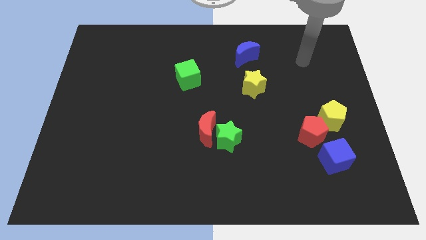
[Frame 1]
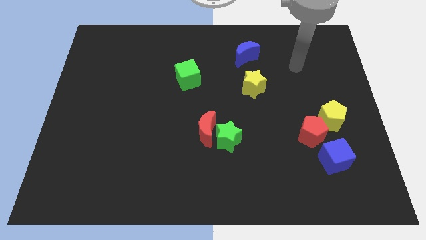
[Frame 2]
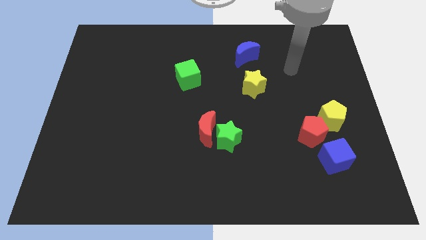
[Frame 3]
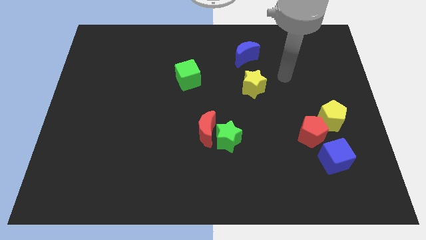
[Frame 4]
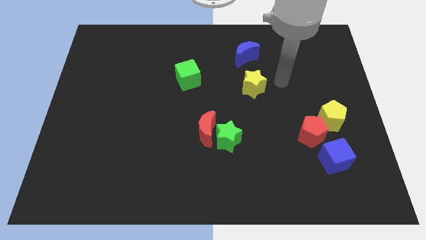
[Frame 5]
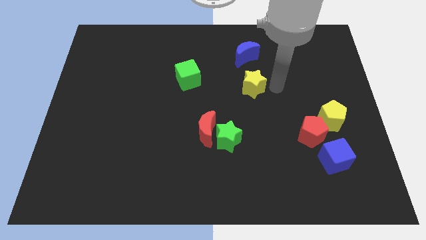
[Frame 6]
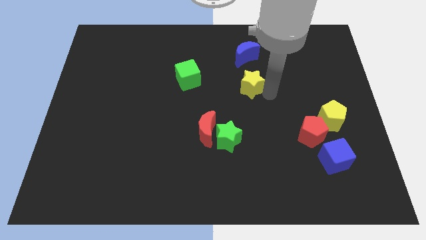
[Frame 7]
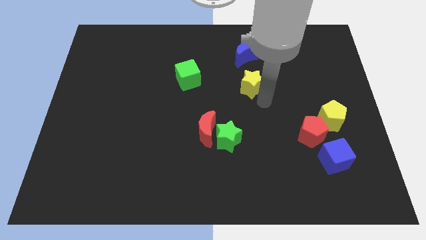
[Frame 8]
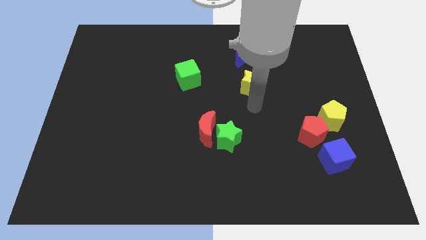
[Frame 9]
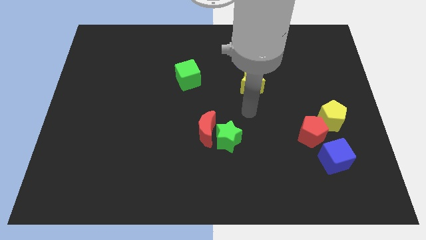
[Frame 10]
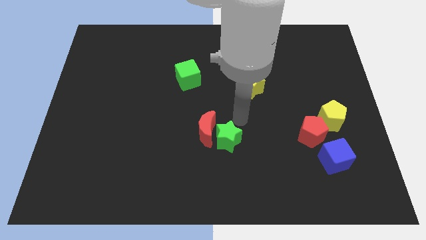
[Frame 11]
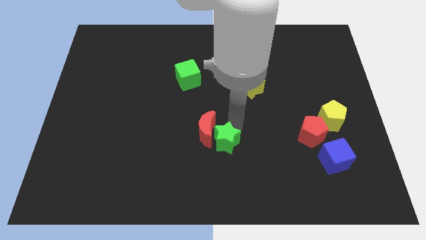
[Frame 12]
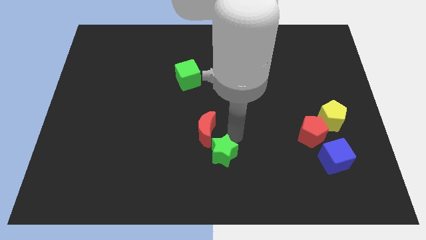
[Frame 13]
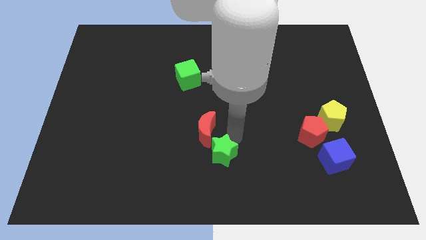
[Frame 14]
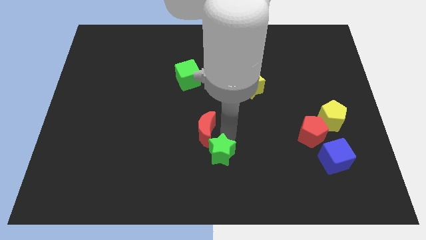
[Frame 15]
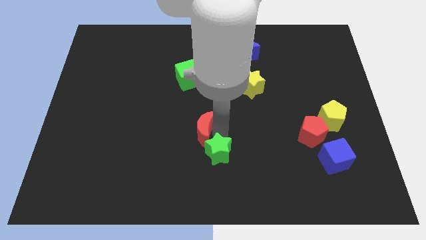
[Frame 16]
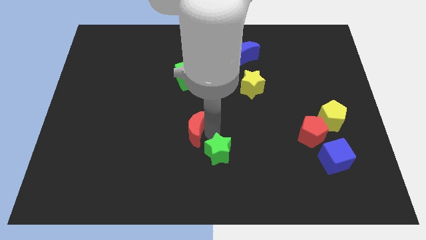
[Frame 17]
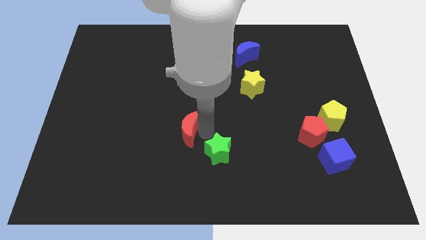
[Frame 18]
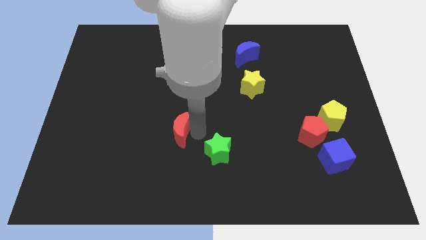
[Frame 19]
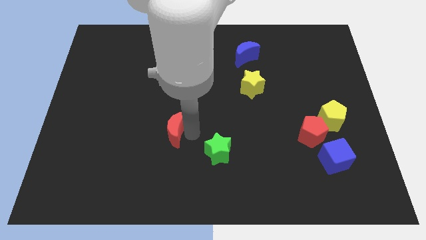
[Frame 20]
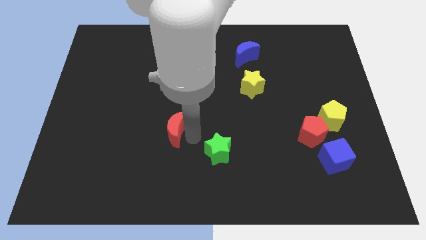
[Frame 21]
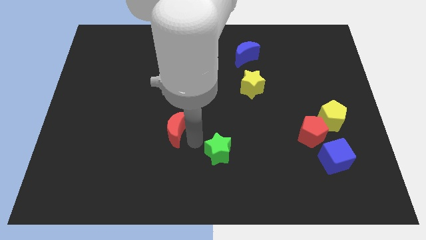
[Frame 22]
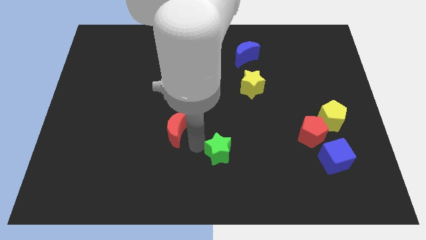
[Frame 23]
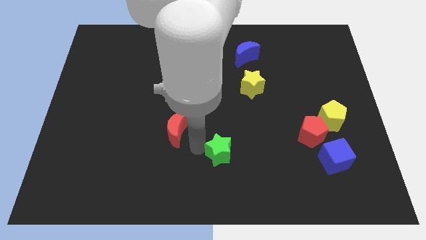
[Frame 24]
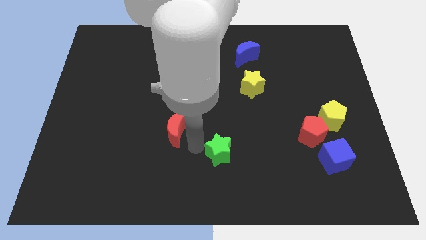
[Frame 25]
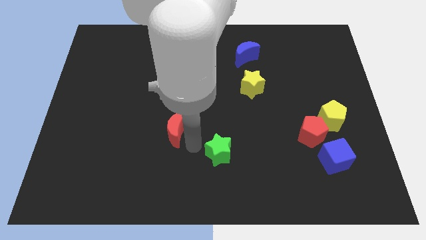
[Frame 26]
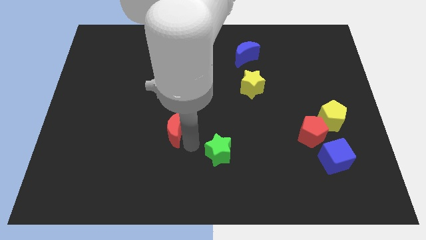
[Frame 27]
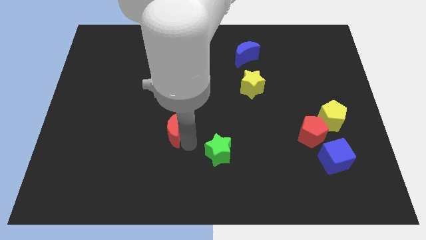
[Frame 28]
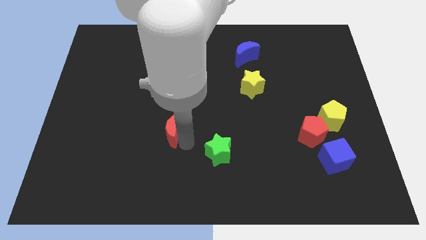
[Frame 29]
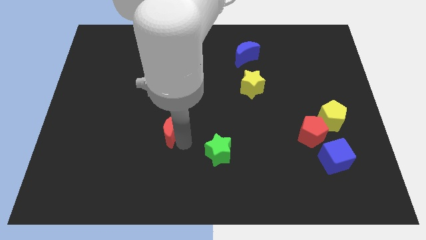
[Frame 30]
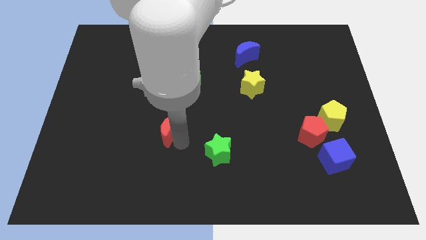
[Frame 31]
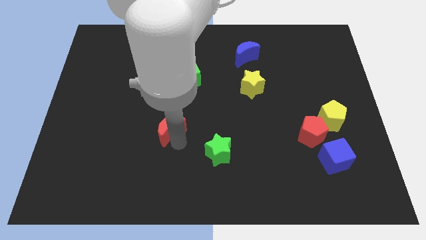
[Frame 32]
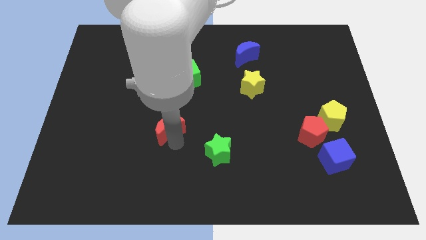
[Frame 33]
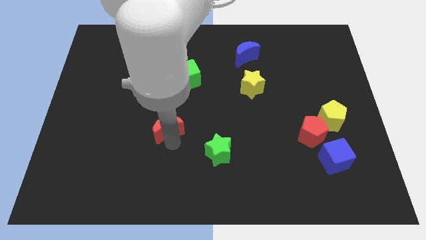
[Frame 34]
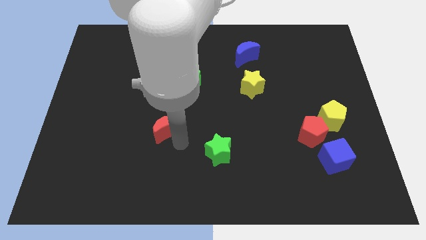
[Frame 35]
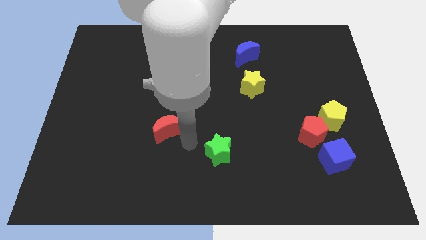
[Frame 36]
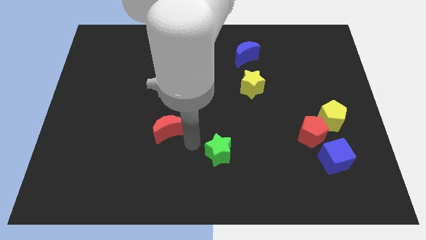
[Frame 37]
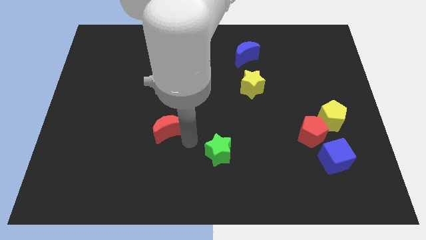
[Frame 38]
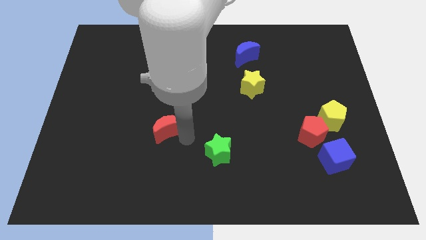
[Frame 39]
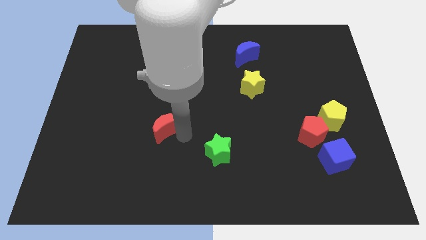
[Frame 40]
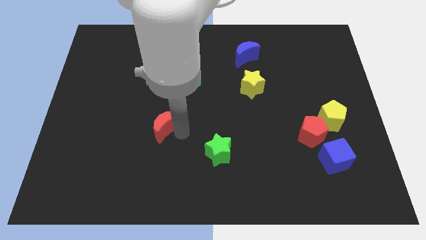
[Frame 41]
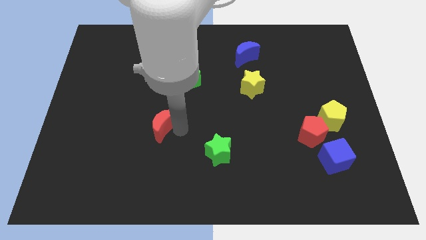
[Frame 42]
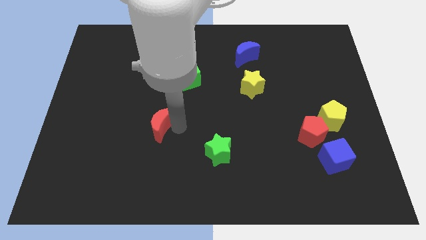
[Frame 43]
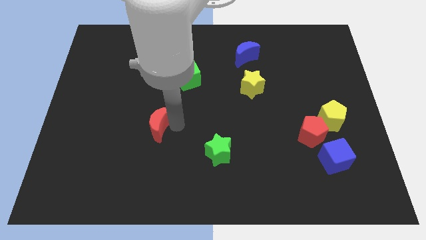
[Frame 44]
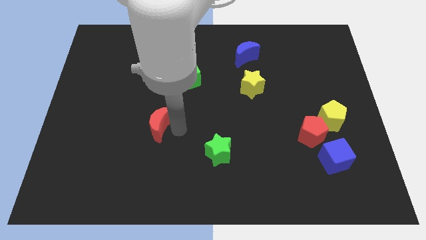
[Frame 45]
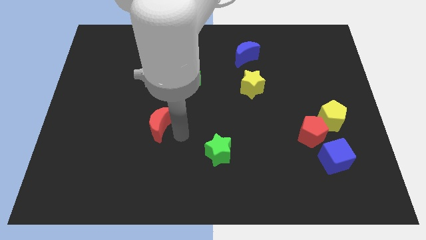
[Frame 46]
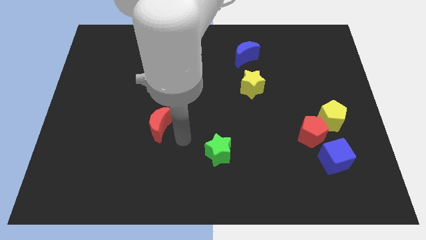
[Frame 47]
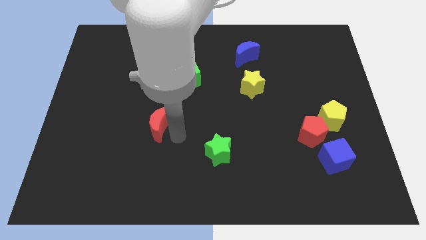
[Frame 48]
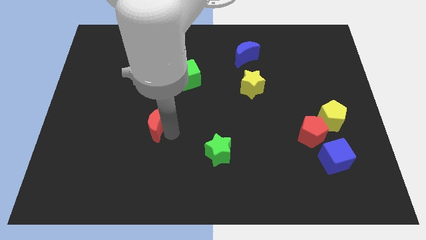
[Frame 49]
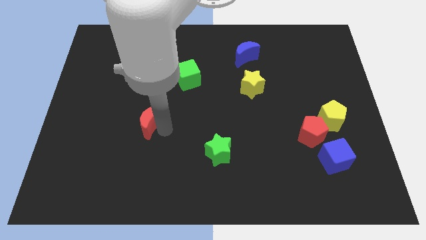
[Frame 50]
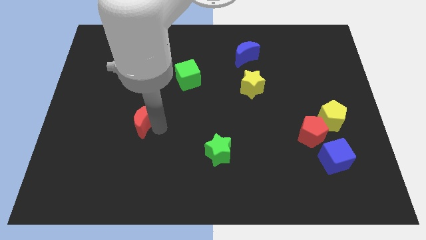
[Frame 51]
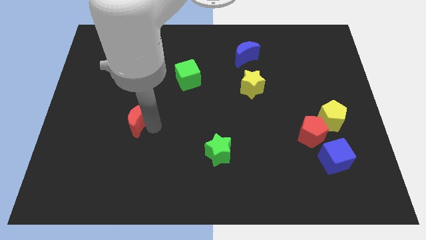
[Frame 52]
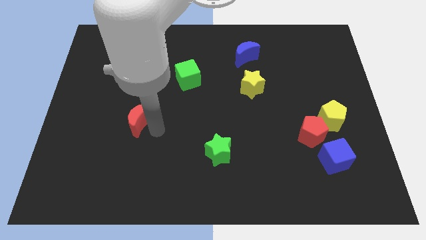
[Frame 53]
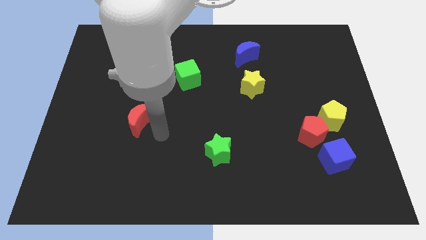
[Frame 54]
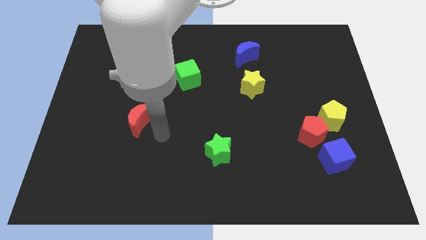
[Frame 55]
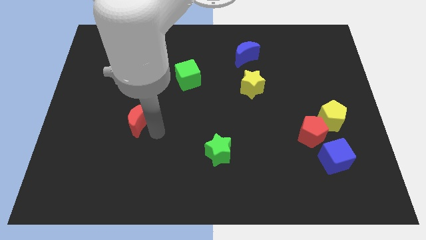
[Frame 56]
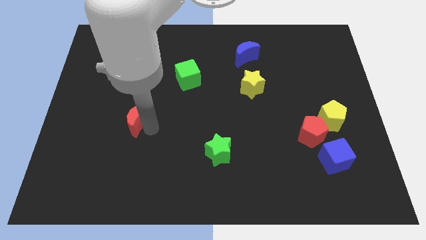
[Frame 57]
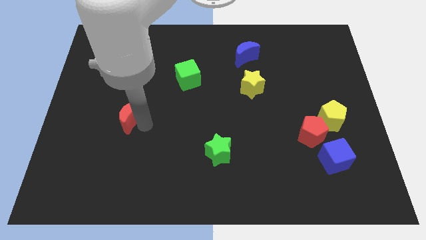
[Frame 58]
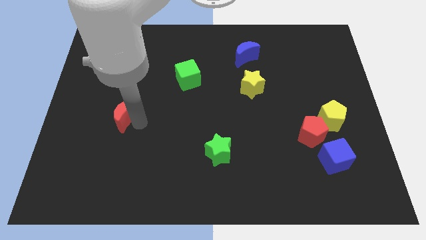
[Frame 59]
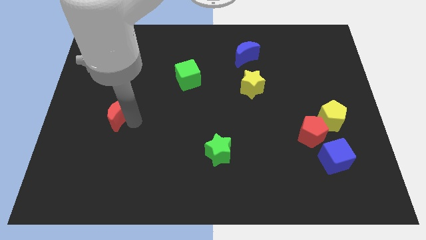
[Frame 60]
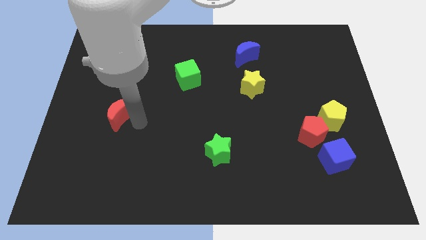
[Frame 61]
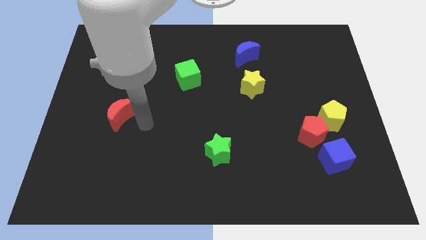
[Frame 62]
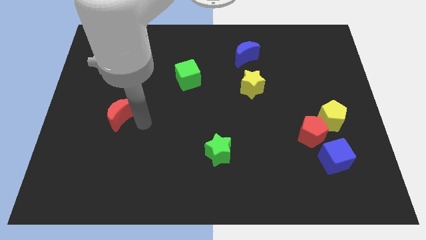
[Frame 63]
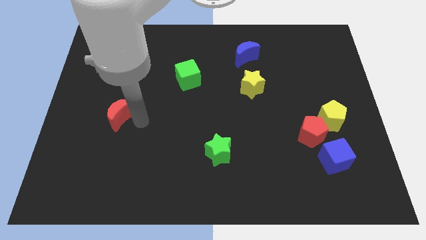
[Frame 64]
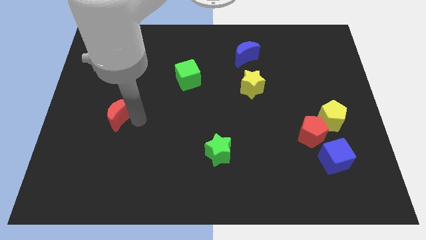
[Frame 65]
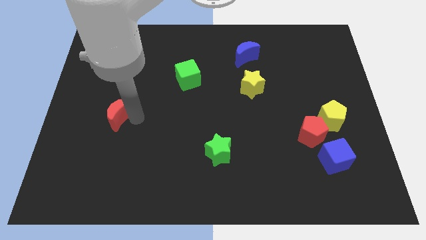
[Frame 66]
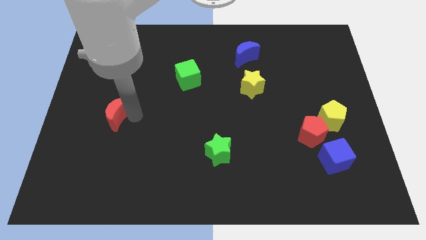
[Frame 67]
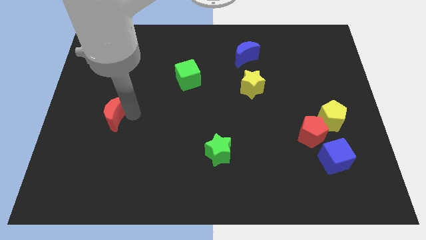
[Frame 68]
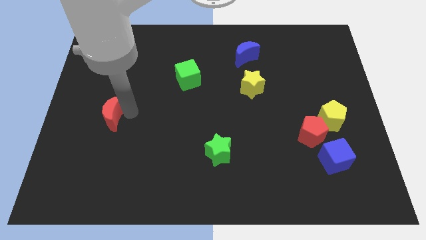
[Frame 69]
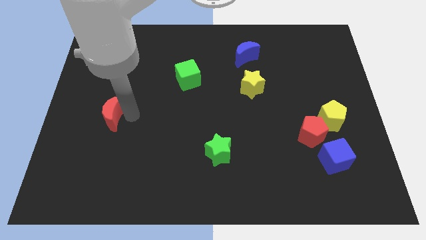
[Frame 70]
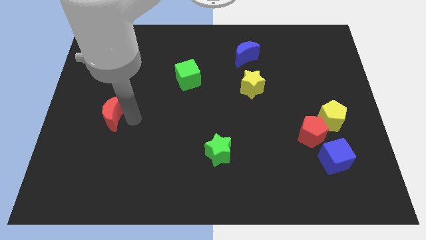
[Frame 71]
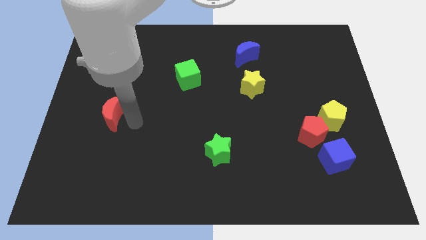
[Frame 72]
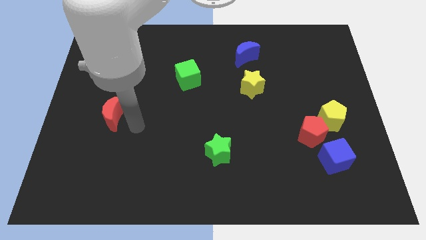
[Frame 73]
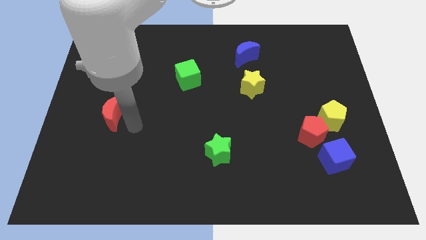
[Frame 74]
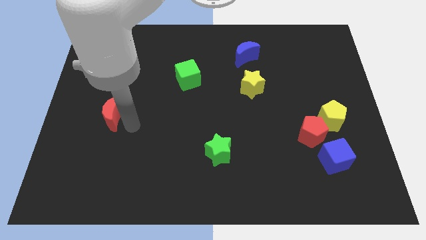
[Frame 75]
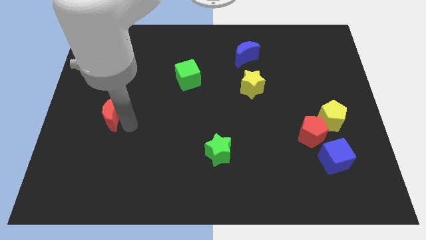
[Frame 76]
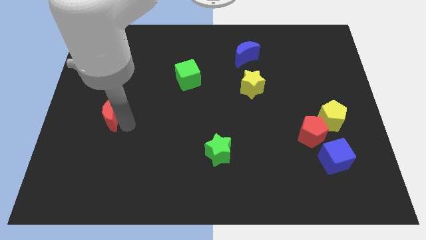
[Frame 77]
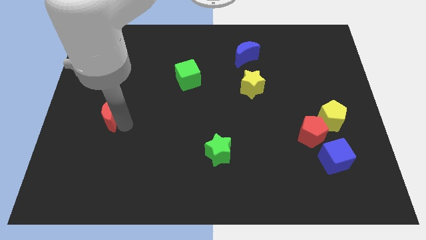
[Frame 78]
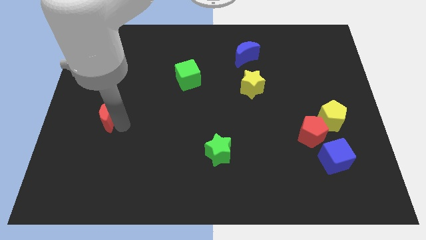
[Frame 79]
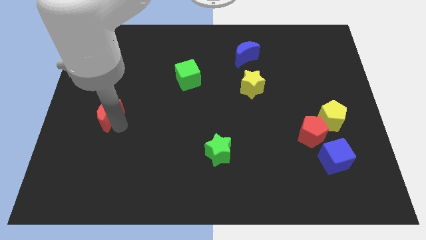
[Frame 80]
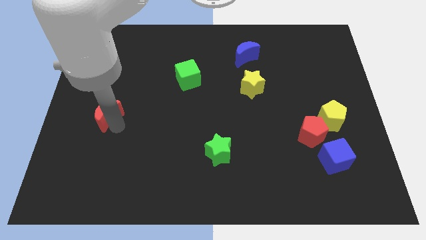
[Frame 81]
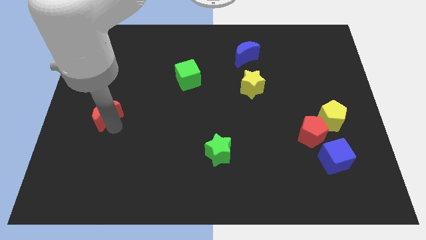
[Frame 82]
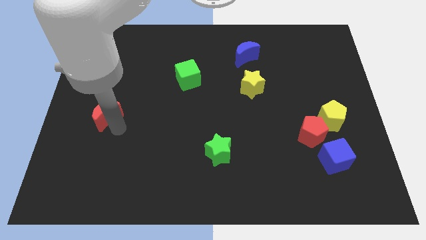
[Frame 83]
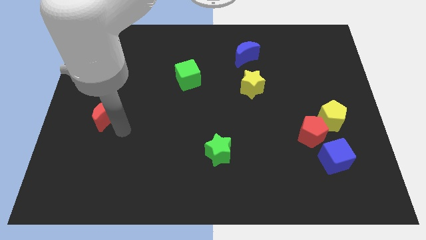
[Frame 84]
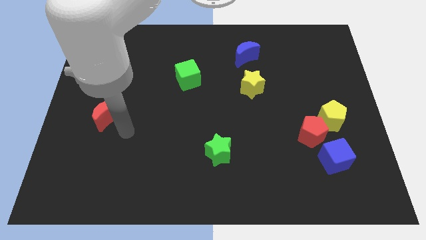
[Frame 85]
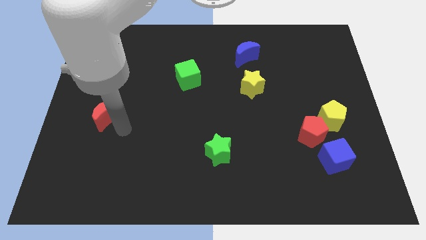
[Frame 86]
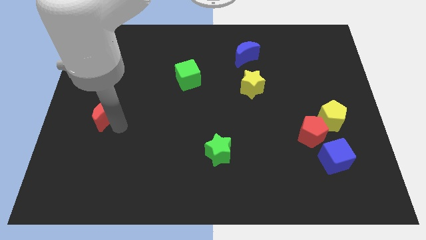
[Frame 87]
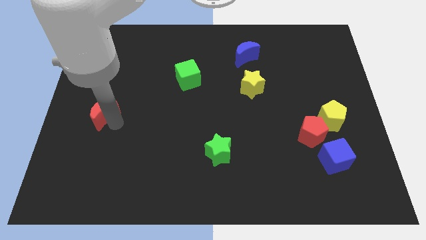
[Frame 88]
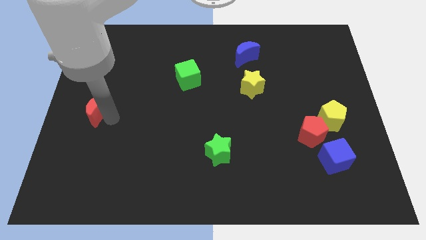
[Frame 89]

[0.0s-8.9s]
put the red moon to the left side
